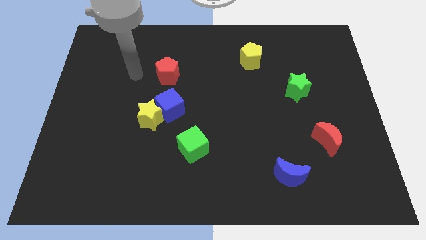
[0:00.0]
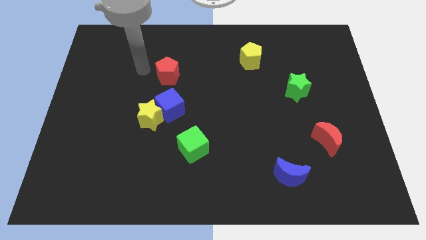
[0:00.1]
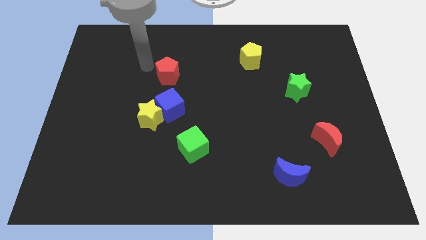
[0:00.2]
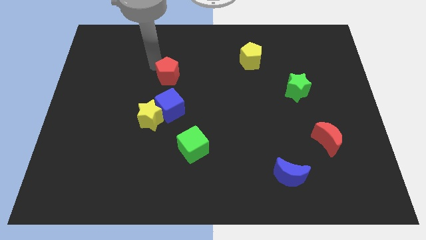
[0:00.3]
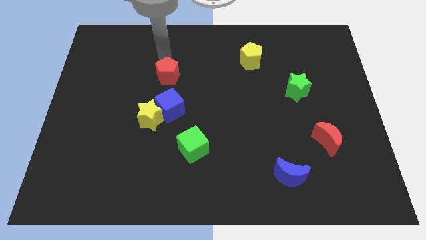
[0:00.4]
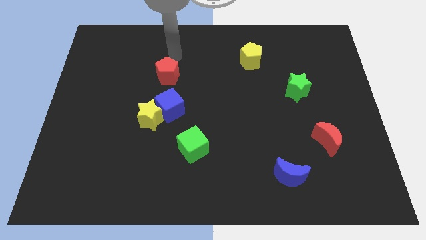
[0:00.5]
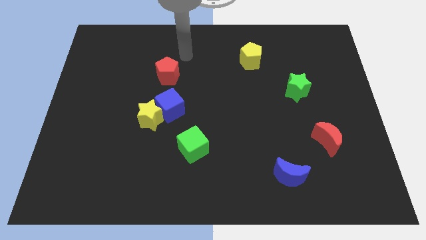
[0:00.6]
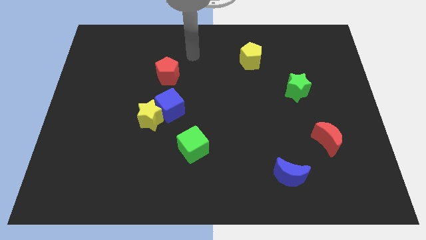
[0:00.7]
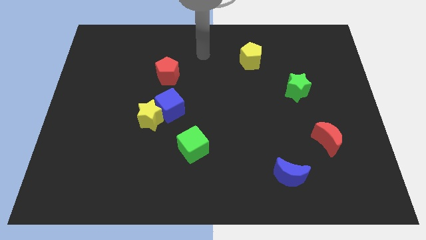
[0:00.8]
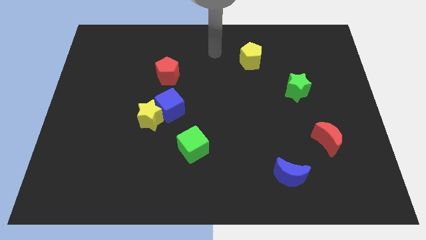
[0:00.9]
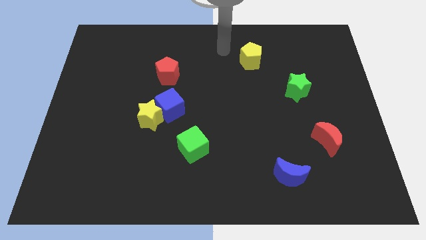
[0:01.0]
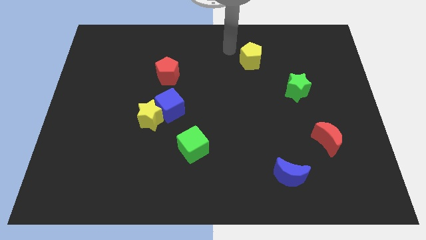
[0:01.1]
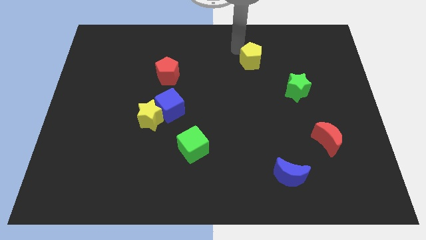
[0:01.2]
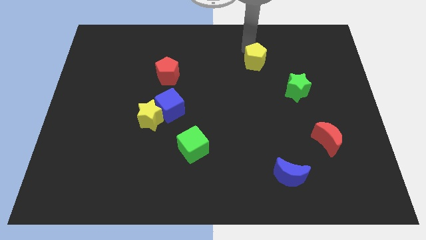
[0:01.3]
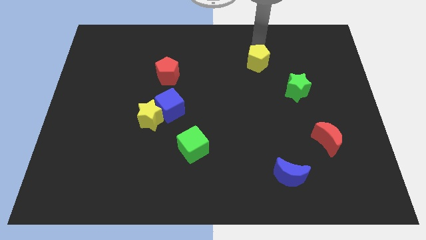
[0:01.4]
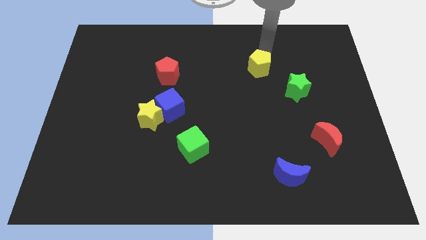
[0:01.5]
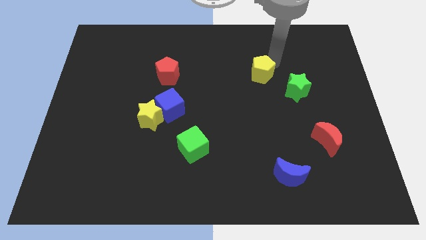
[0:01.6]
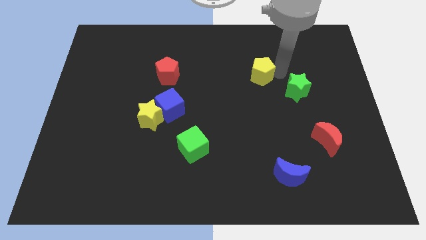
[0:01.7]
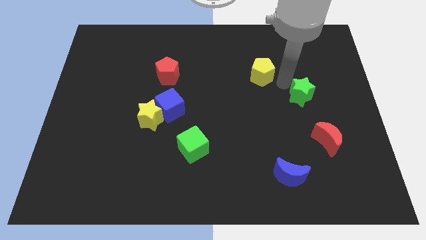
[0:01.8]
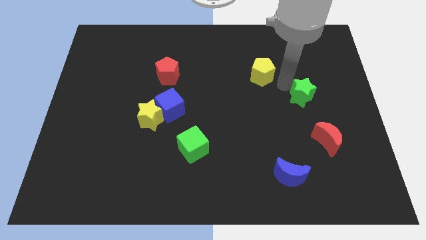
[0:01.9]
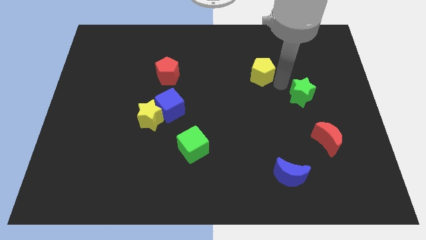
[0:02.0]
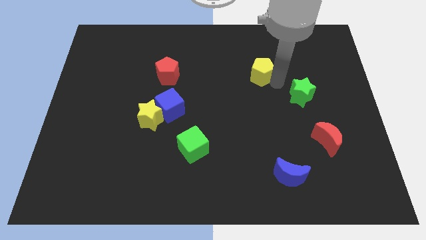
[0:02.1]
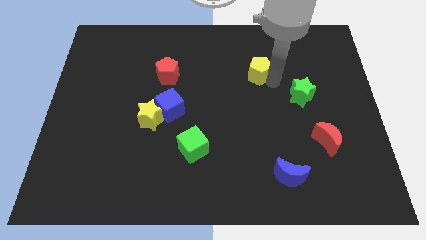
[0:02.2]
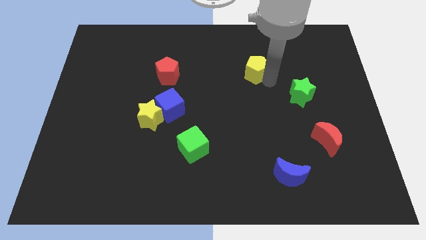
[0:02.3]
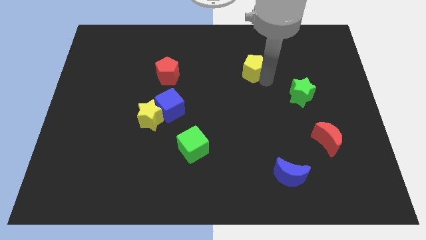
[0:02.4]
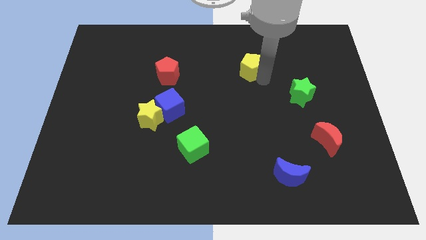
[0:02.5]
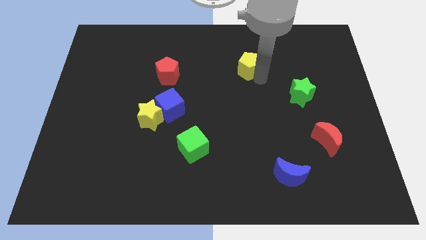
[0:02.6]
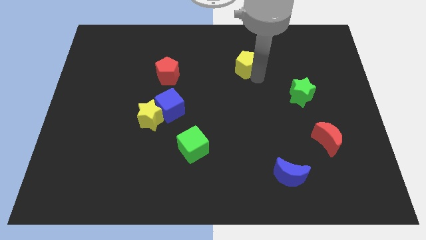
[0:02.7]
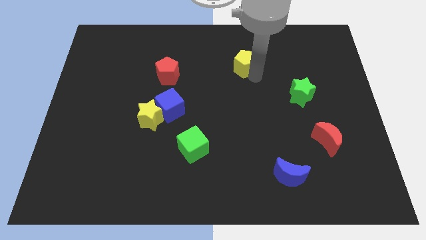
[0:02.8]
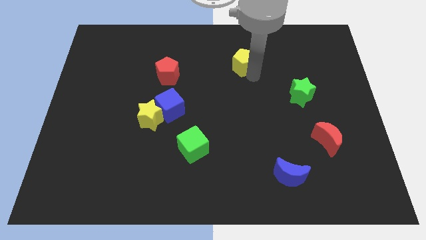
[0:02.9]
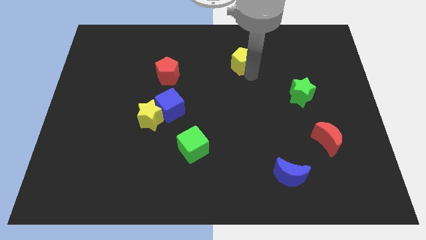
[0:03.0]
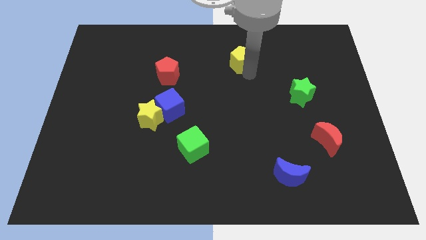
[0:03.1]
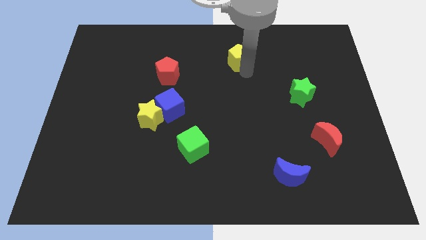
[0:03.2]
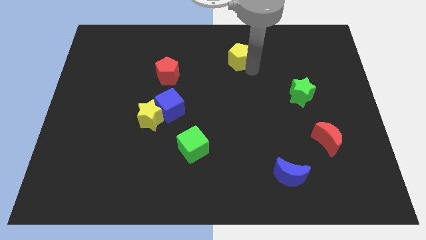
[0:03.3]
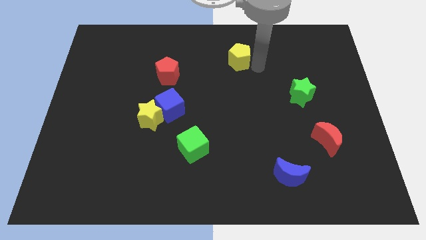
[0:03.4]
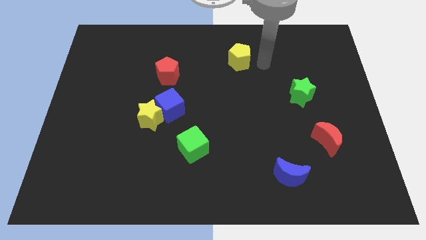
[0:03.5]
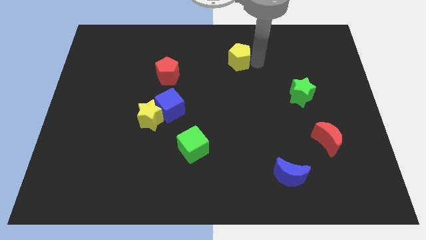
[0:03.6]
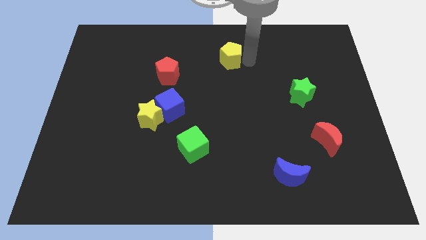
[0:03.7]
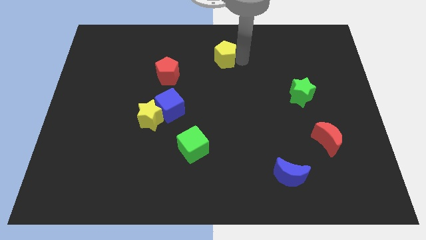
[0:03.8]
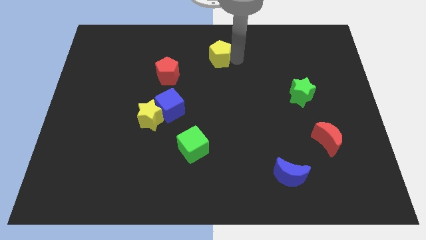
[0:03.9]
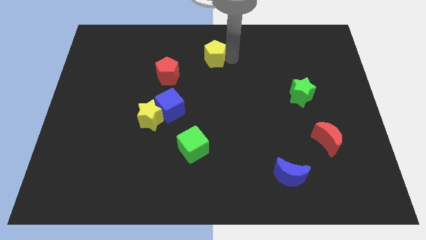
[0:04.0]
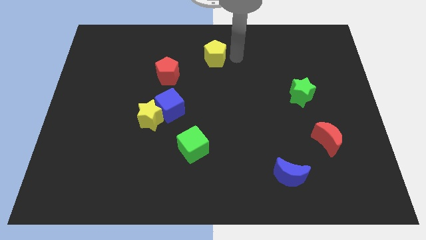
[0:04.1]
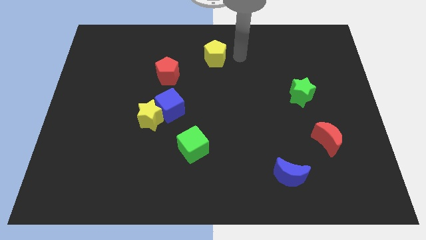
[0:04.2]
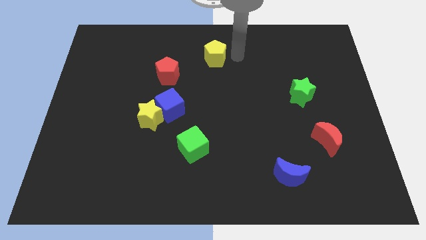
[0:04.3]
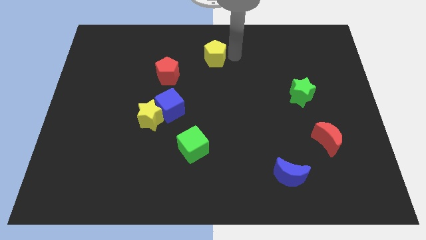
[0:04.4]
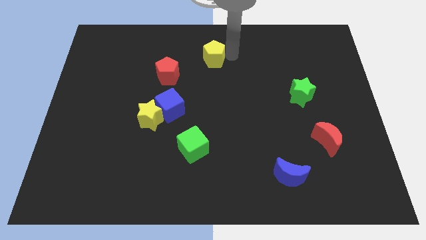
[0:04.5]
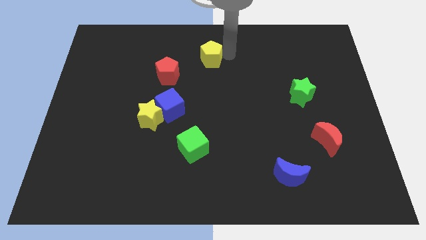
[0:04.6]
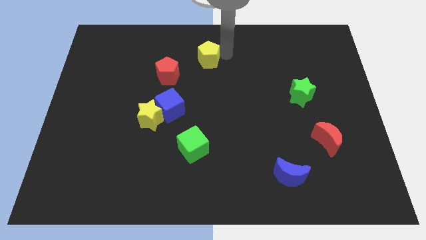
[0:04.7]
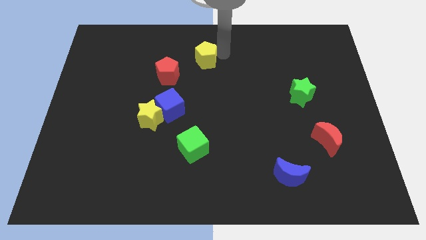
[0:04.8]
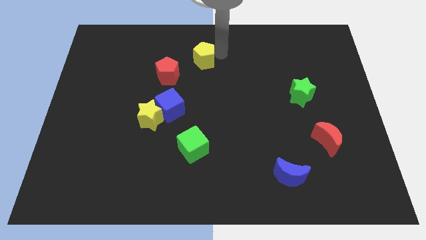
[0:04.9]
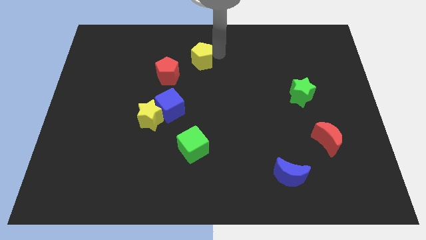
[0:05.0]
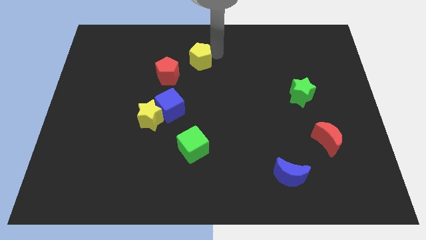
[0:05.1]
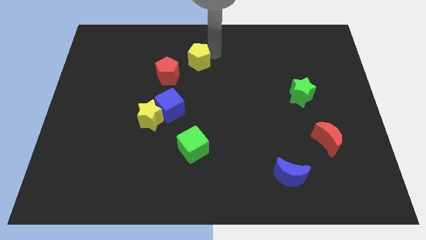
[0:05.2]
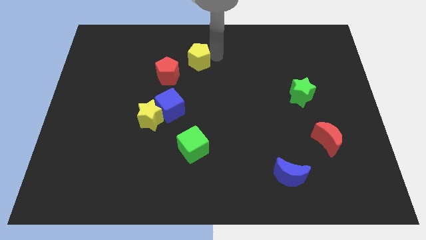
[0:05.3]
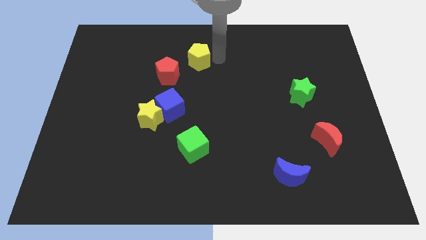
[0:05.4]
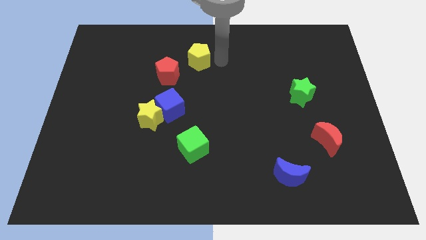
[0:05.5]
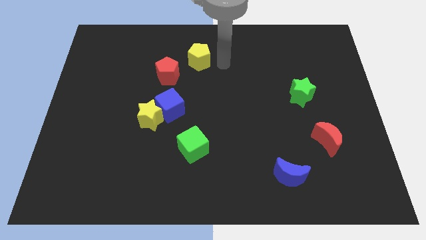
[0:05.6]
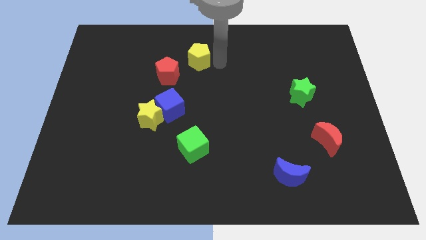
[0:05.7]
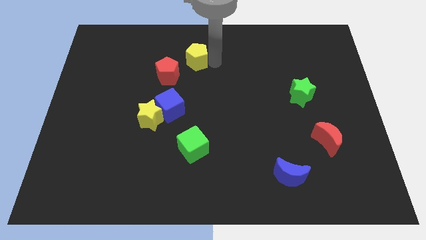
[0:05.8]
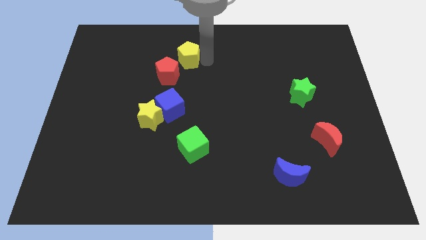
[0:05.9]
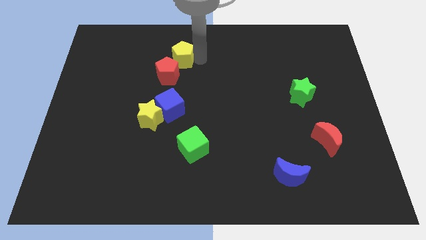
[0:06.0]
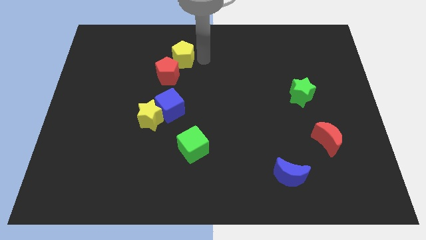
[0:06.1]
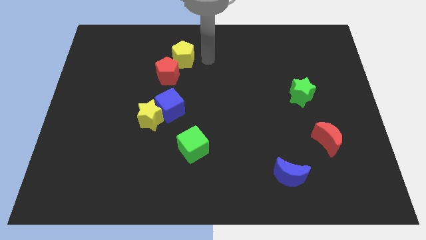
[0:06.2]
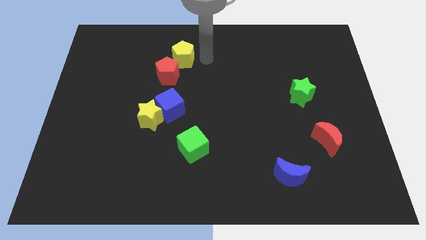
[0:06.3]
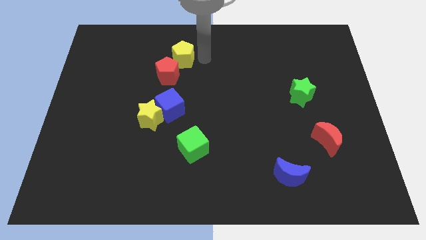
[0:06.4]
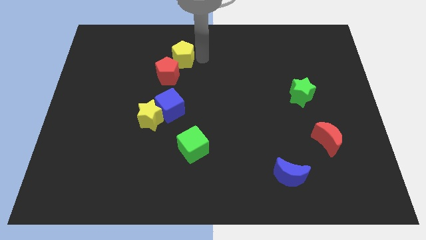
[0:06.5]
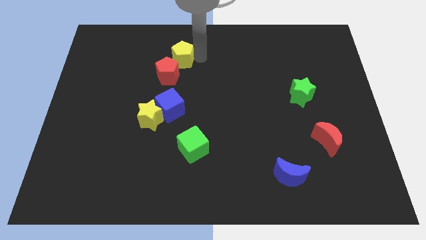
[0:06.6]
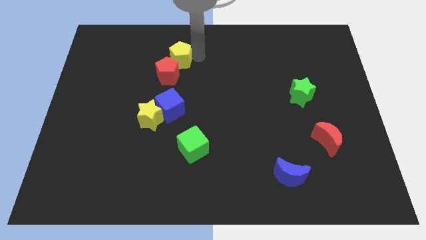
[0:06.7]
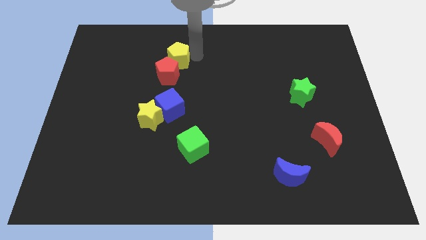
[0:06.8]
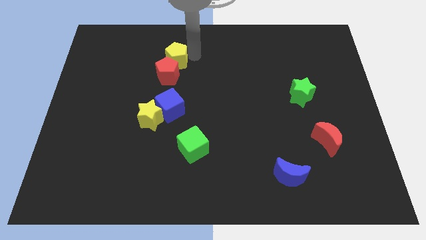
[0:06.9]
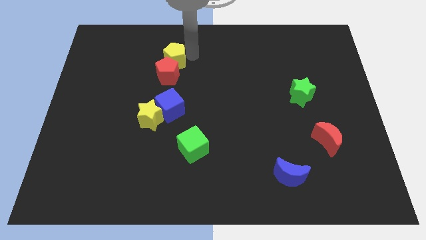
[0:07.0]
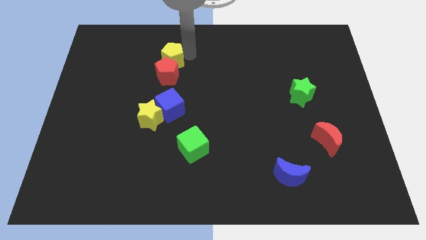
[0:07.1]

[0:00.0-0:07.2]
slide the yellow pentagon to the left

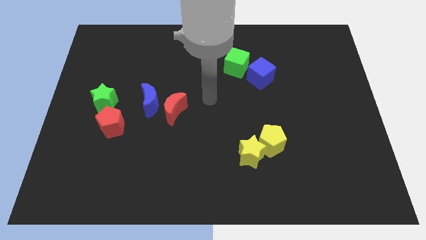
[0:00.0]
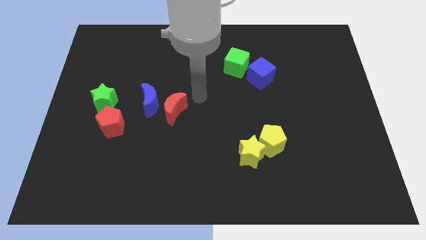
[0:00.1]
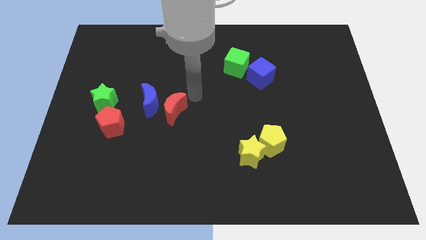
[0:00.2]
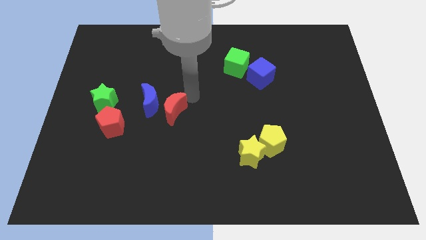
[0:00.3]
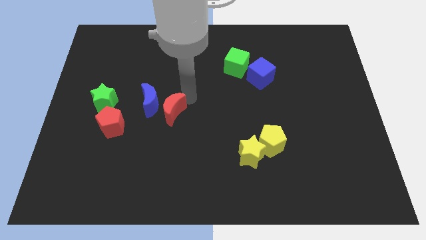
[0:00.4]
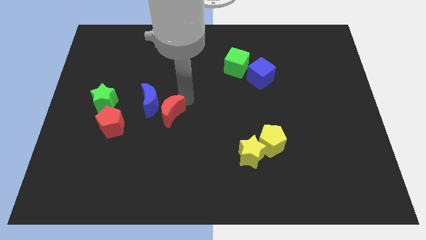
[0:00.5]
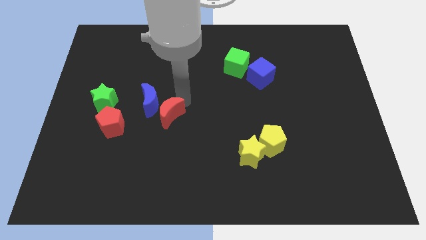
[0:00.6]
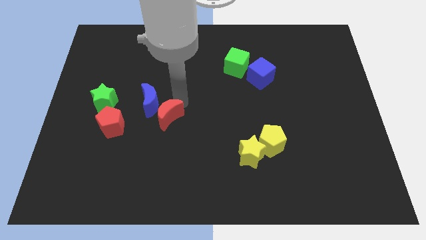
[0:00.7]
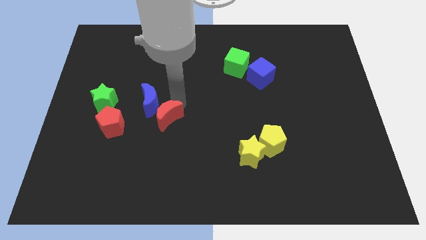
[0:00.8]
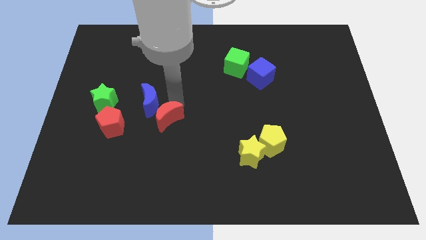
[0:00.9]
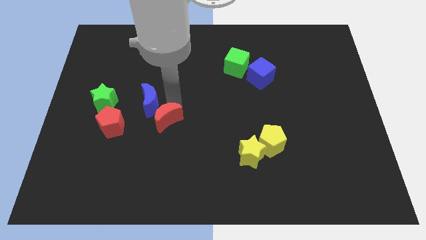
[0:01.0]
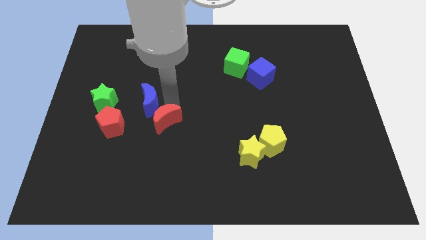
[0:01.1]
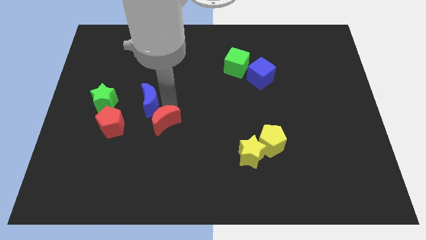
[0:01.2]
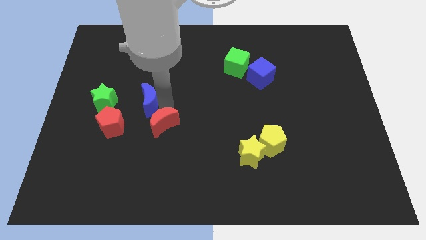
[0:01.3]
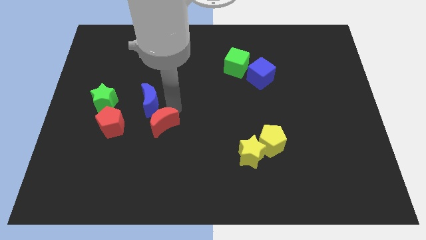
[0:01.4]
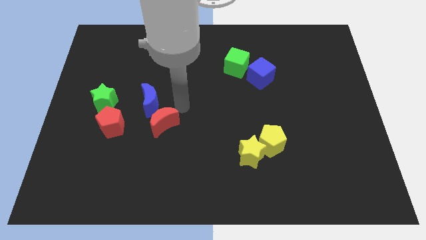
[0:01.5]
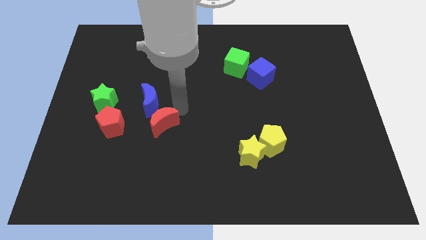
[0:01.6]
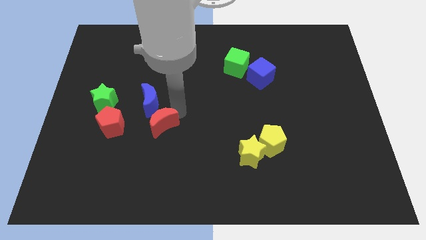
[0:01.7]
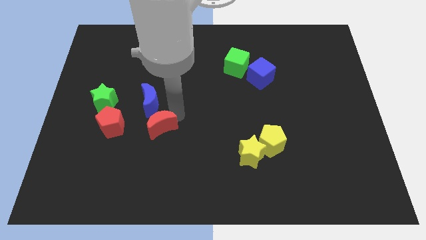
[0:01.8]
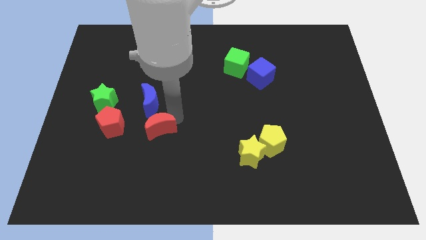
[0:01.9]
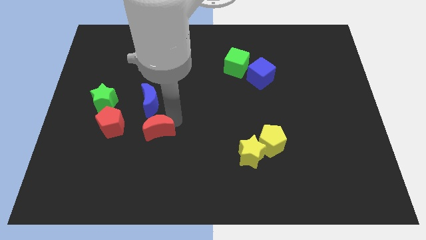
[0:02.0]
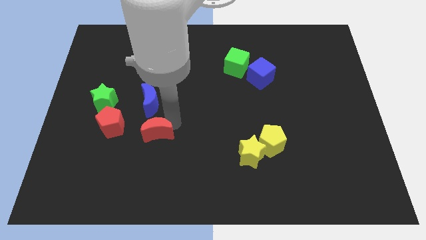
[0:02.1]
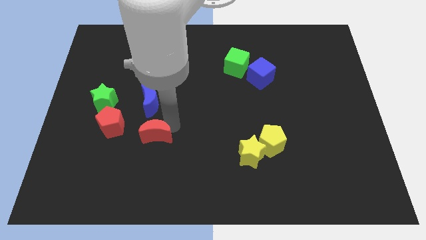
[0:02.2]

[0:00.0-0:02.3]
slide the red moon a little down and then to the left
